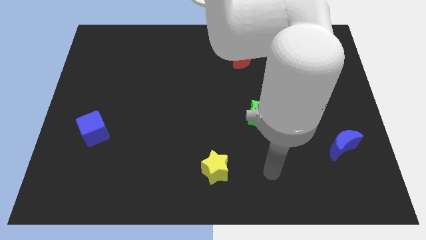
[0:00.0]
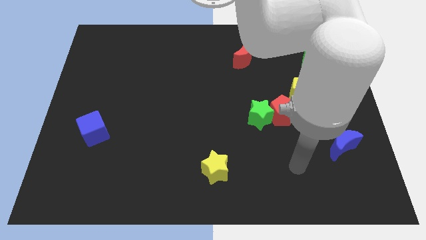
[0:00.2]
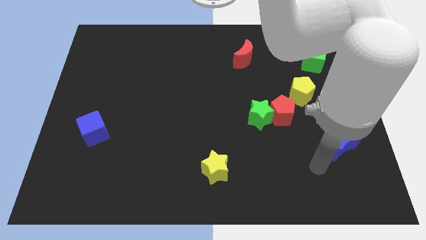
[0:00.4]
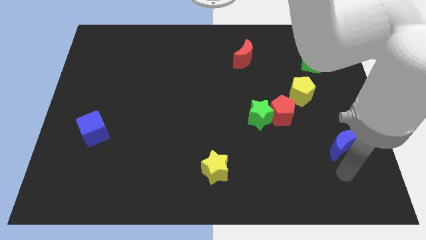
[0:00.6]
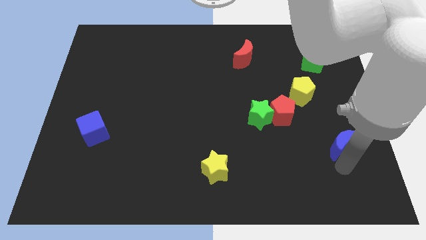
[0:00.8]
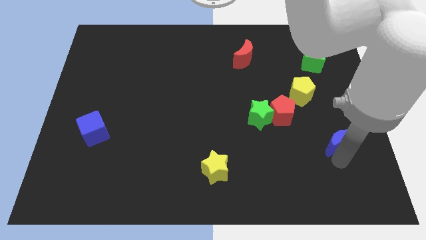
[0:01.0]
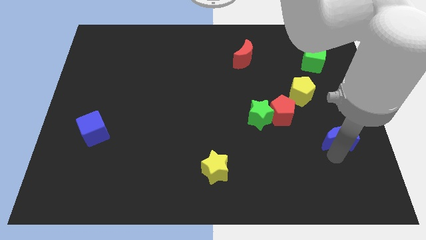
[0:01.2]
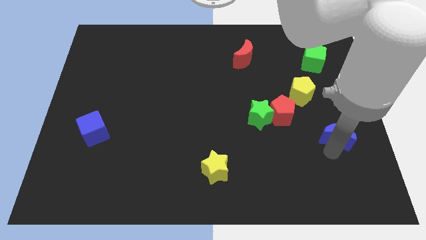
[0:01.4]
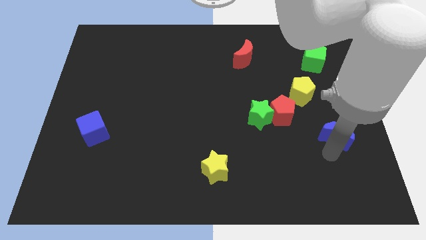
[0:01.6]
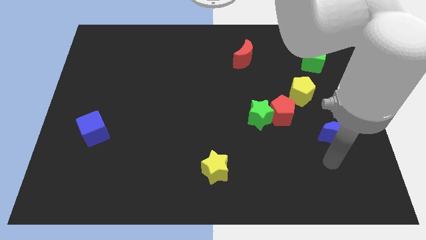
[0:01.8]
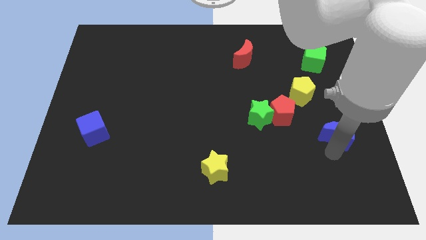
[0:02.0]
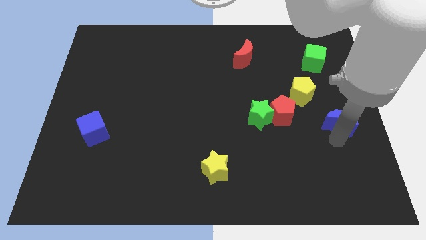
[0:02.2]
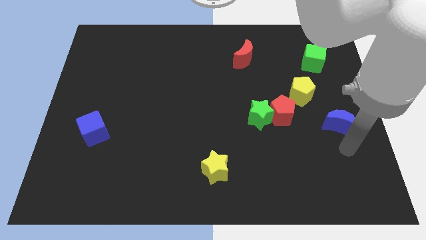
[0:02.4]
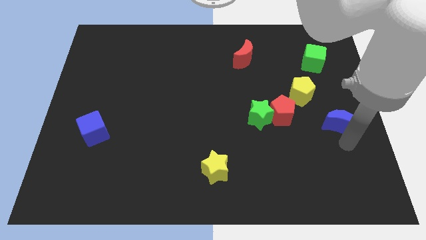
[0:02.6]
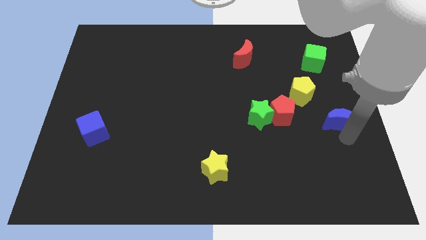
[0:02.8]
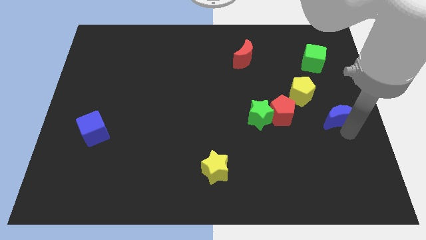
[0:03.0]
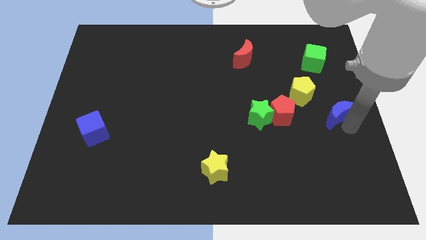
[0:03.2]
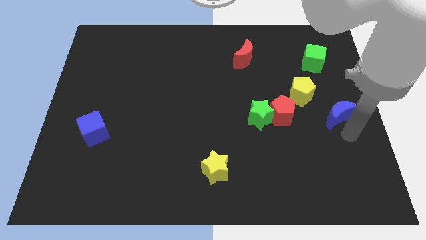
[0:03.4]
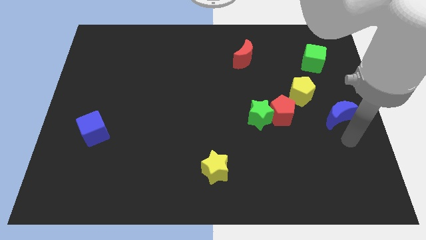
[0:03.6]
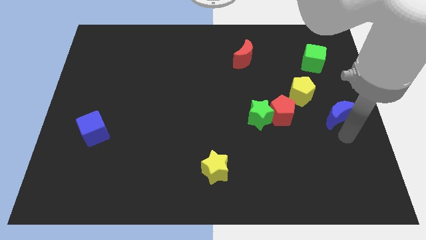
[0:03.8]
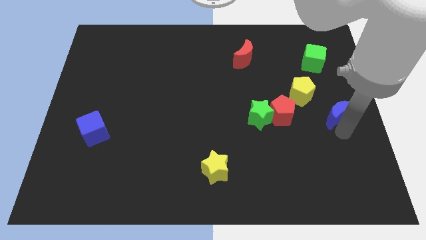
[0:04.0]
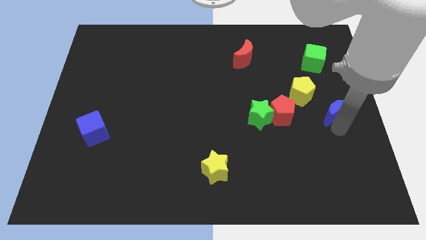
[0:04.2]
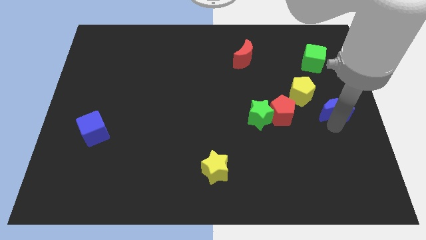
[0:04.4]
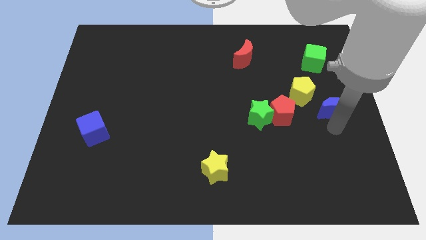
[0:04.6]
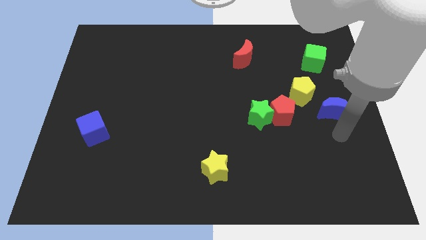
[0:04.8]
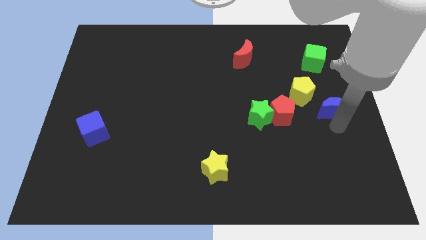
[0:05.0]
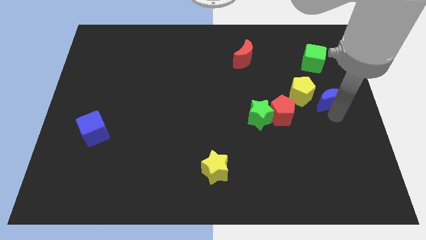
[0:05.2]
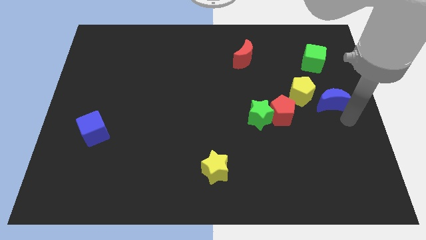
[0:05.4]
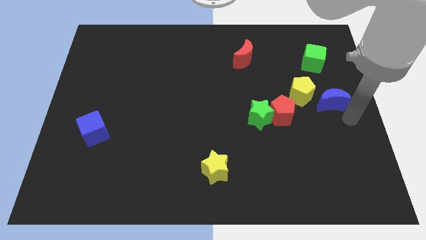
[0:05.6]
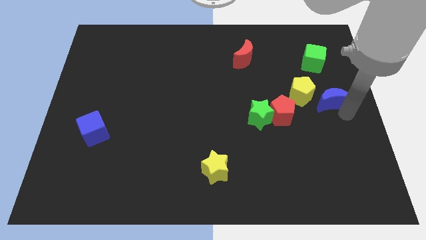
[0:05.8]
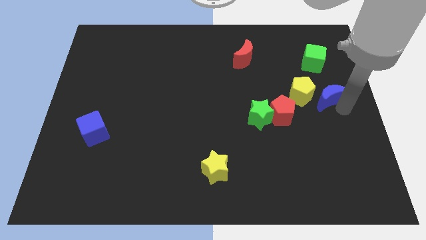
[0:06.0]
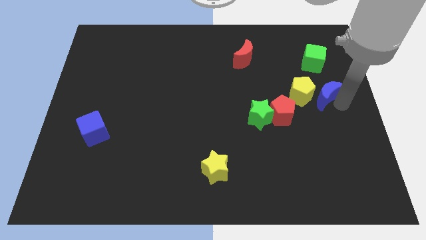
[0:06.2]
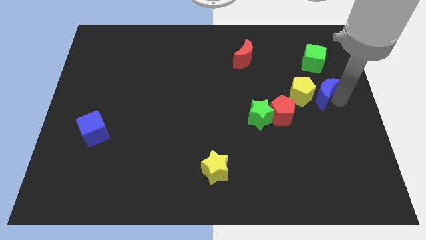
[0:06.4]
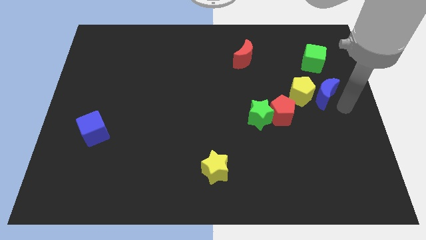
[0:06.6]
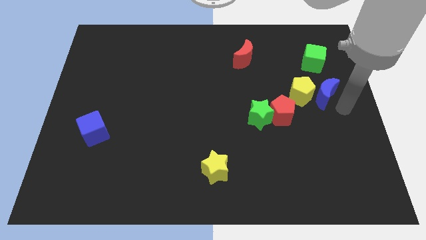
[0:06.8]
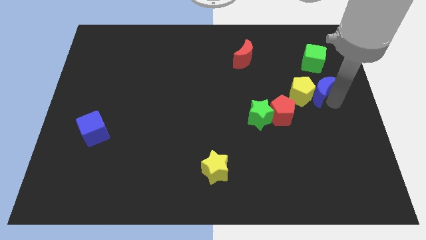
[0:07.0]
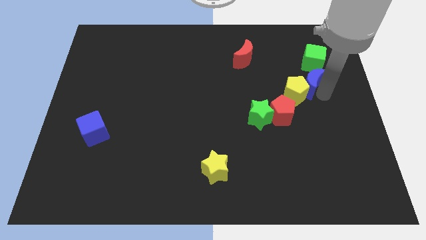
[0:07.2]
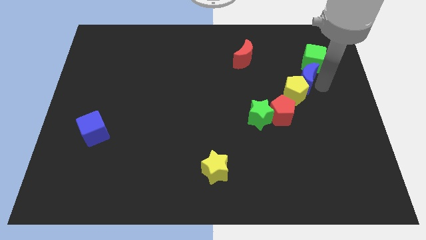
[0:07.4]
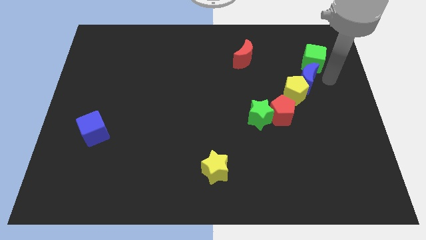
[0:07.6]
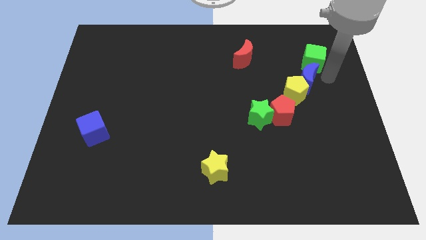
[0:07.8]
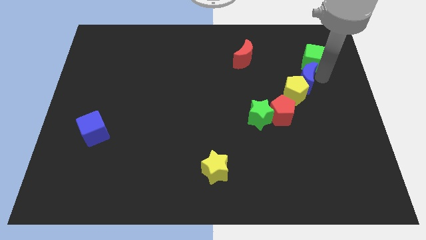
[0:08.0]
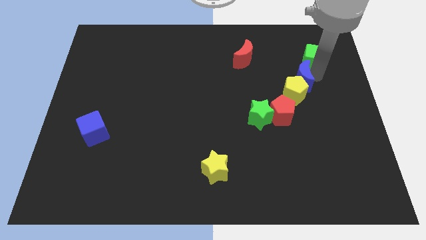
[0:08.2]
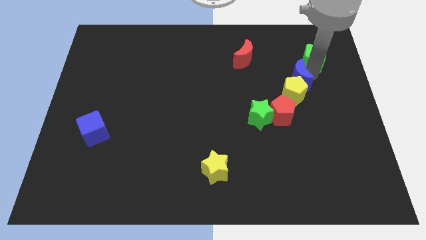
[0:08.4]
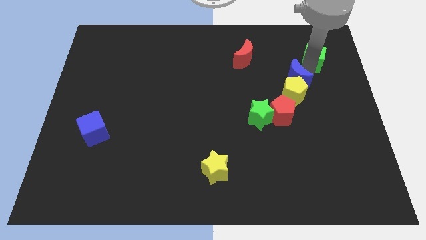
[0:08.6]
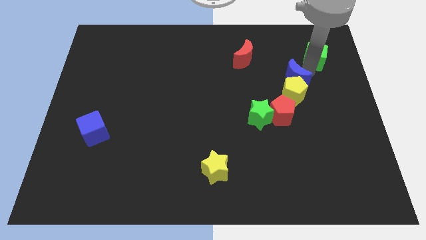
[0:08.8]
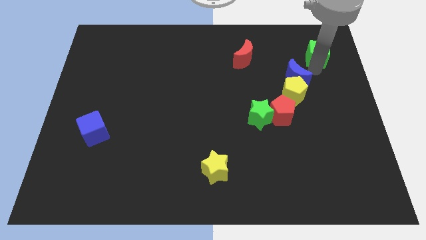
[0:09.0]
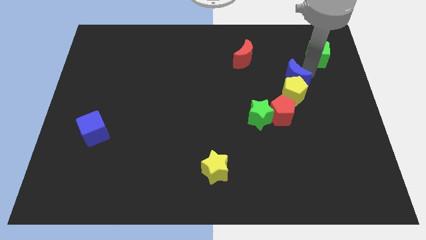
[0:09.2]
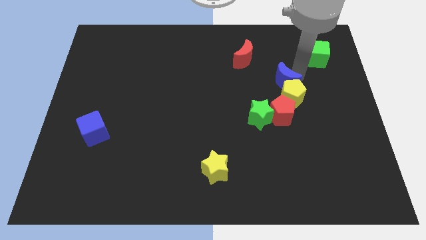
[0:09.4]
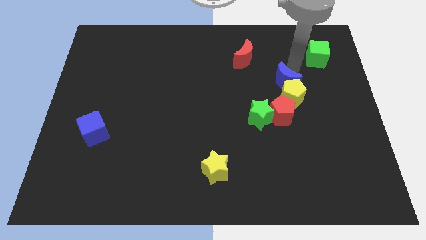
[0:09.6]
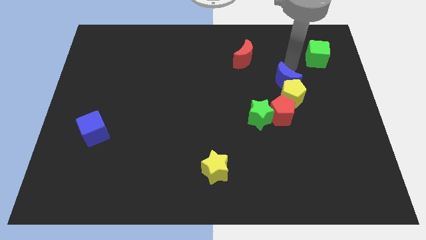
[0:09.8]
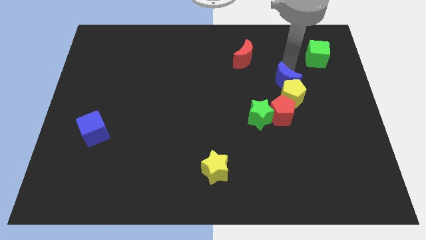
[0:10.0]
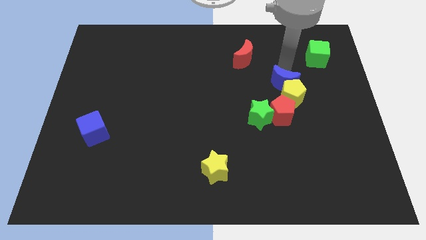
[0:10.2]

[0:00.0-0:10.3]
move the blue moon diagonally up and to the right of the green star

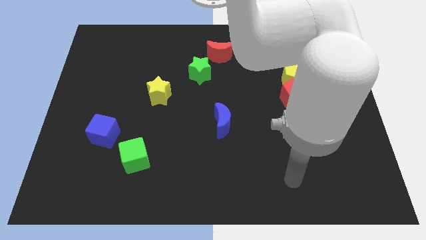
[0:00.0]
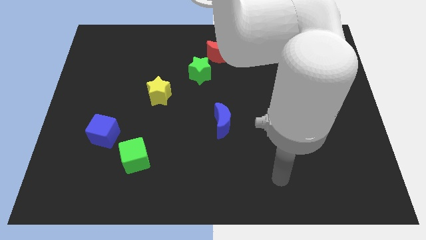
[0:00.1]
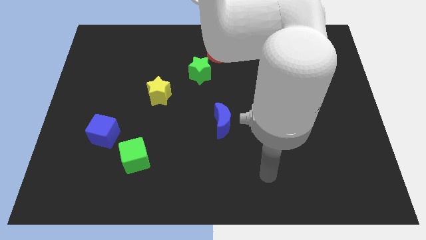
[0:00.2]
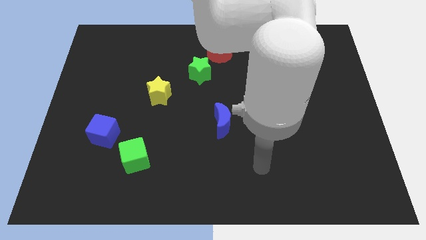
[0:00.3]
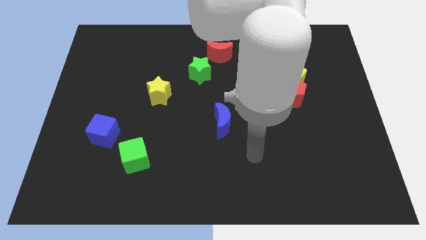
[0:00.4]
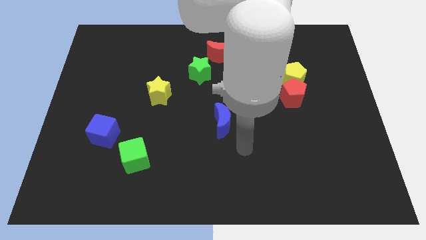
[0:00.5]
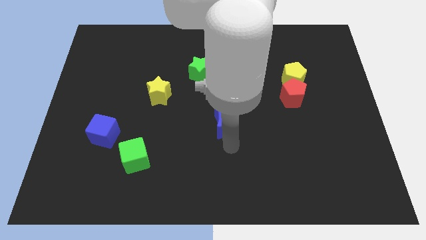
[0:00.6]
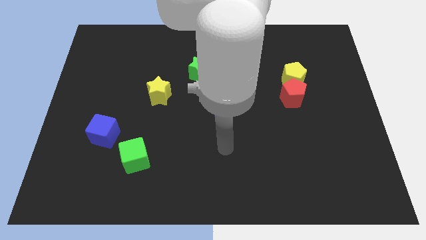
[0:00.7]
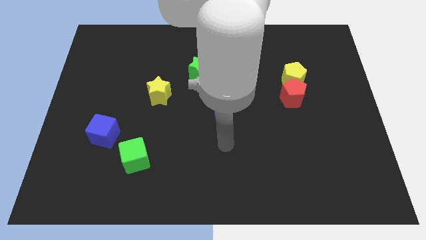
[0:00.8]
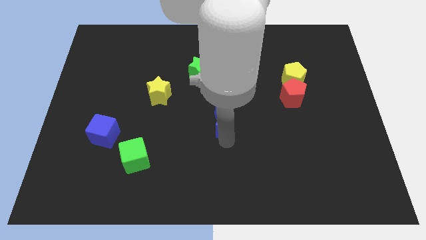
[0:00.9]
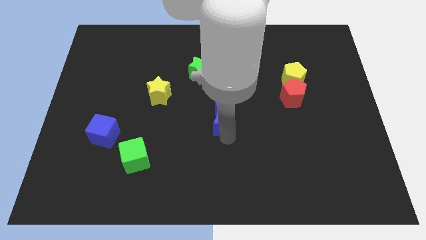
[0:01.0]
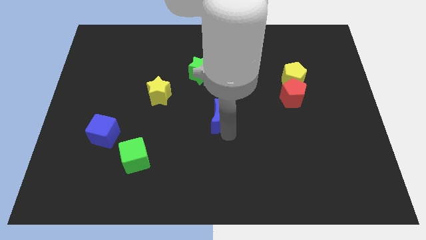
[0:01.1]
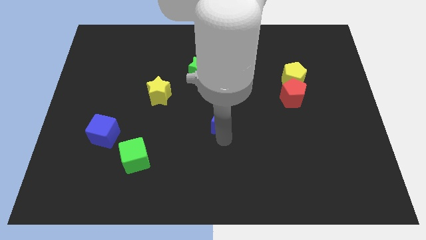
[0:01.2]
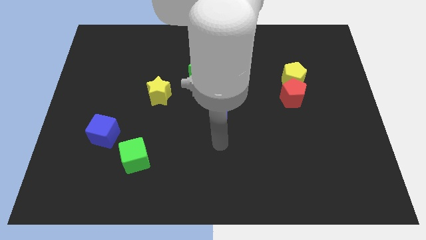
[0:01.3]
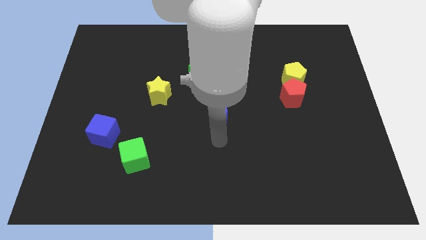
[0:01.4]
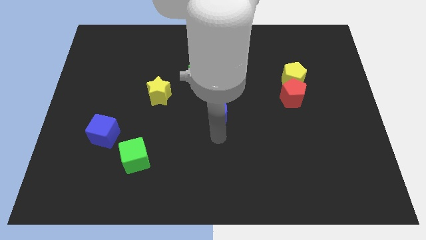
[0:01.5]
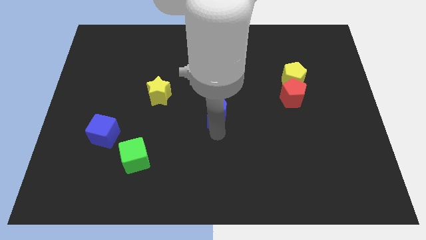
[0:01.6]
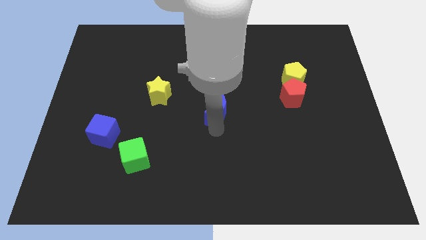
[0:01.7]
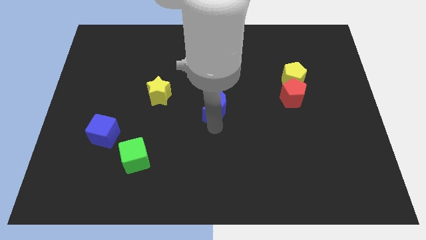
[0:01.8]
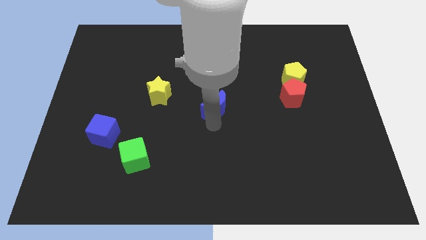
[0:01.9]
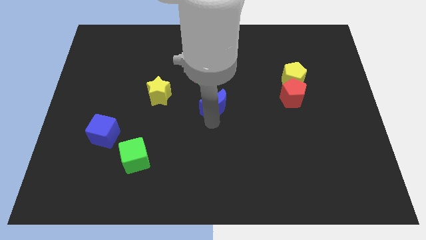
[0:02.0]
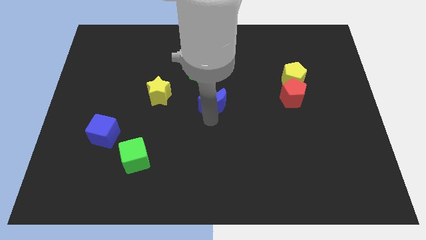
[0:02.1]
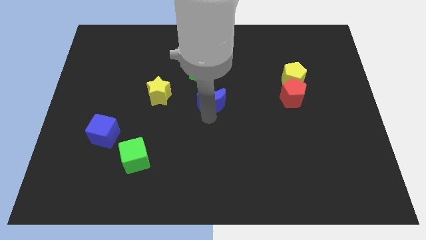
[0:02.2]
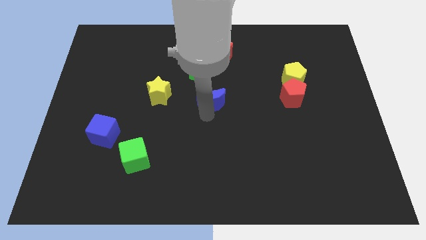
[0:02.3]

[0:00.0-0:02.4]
push the blue moon diagonally down and to the right of the green star
